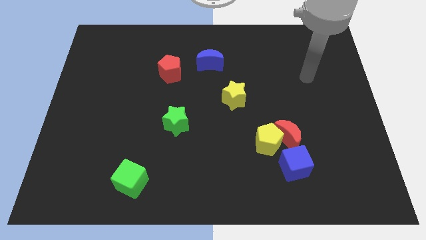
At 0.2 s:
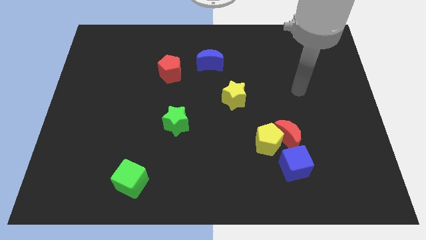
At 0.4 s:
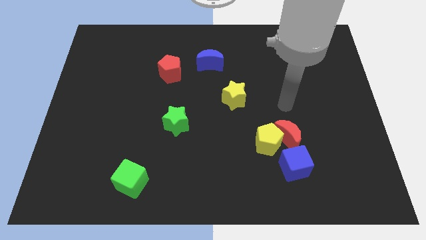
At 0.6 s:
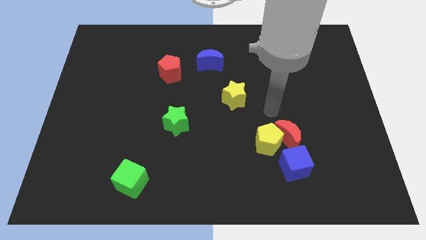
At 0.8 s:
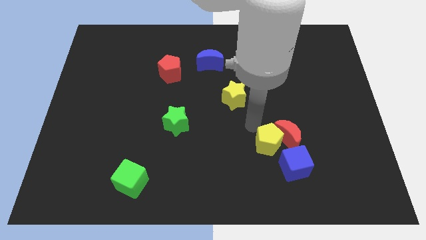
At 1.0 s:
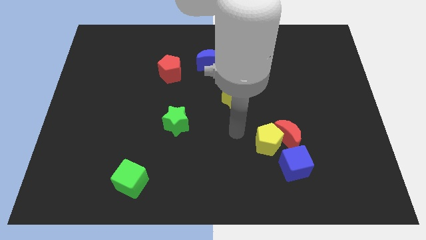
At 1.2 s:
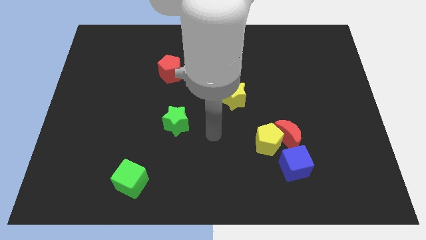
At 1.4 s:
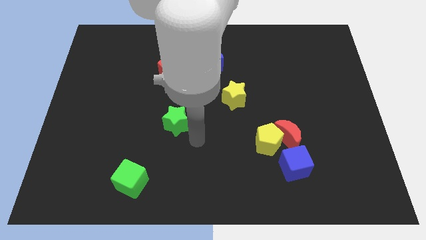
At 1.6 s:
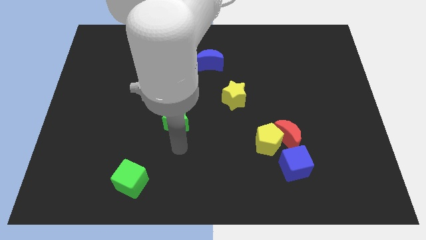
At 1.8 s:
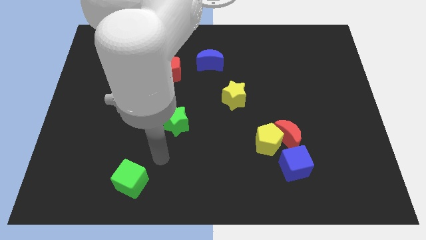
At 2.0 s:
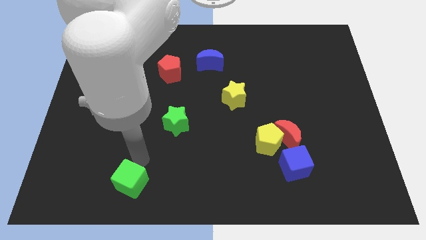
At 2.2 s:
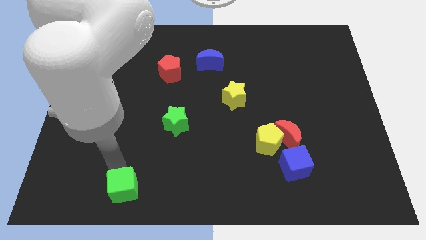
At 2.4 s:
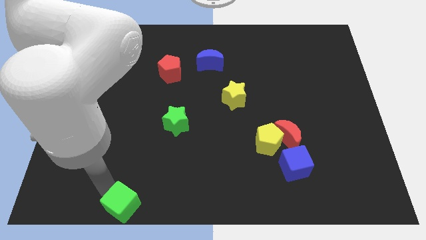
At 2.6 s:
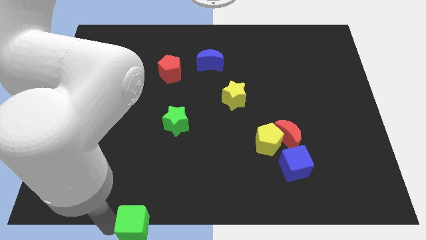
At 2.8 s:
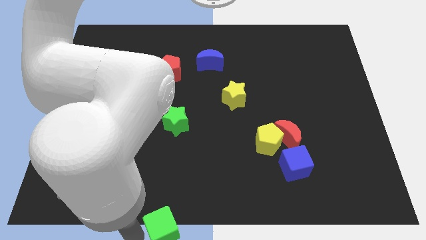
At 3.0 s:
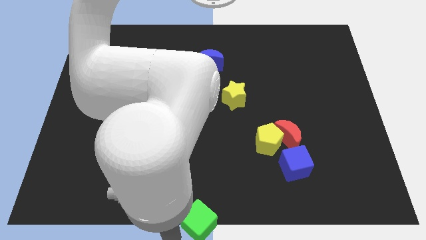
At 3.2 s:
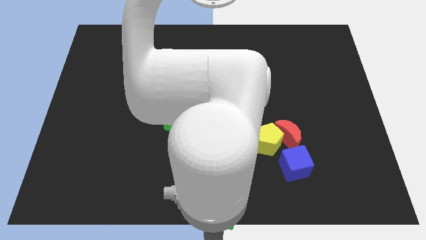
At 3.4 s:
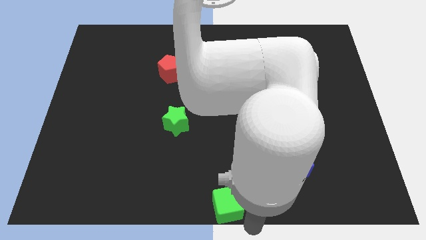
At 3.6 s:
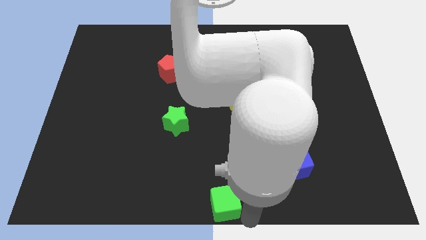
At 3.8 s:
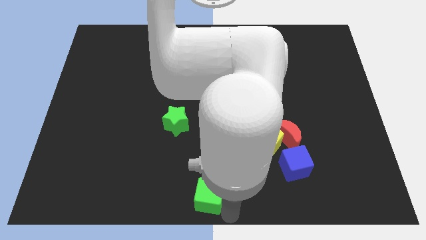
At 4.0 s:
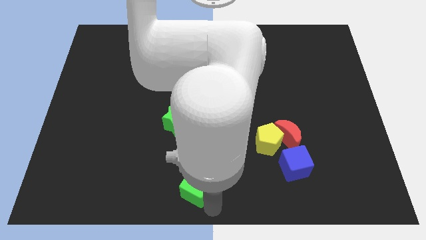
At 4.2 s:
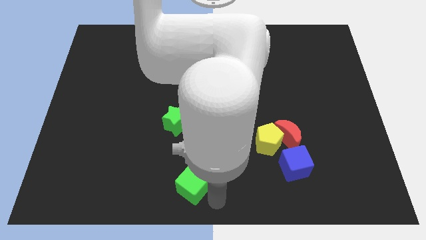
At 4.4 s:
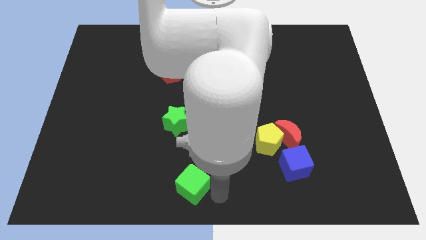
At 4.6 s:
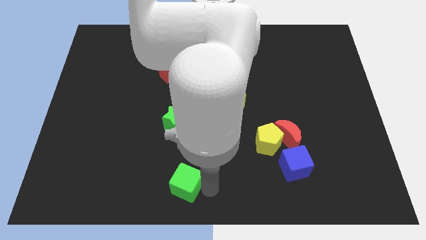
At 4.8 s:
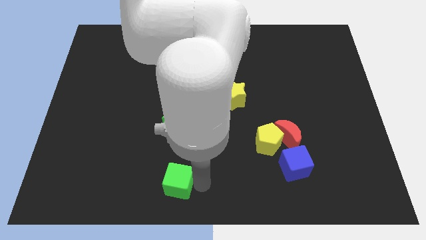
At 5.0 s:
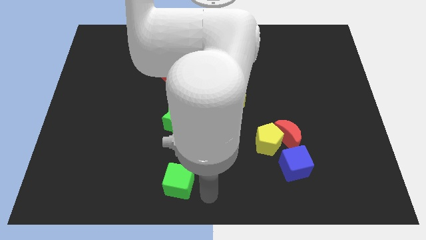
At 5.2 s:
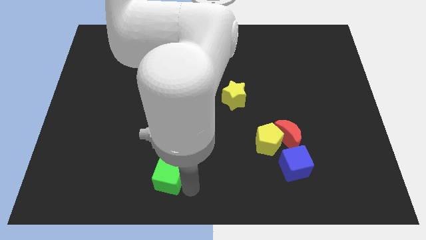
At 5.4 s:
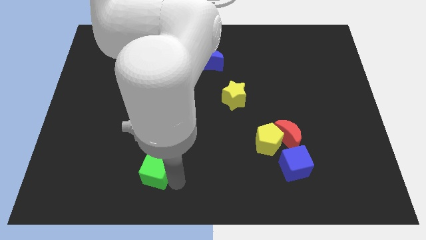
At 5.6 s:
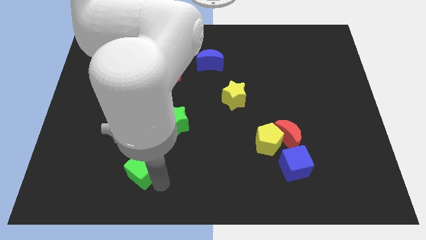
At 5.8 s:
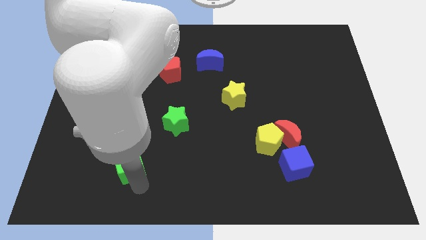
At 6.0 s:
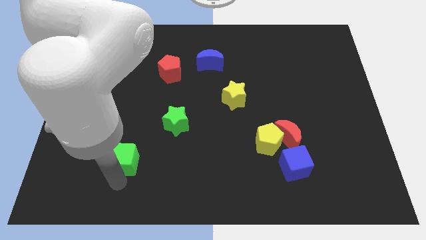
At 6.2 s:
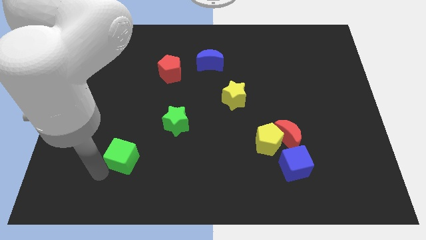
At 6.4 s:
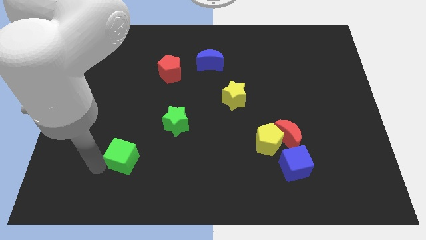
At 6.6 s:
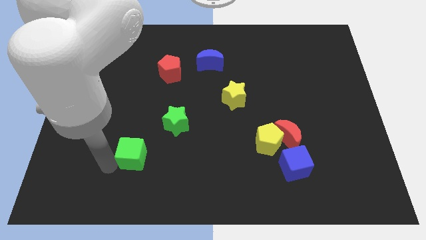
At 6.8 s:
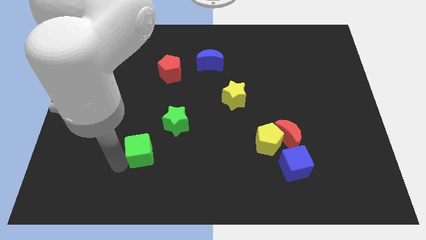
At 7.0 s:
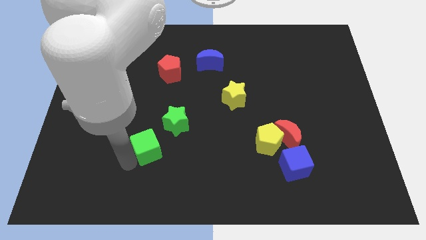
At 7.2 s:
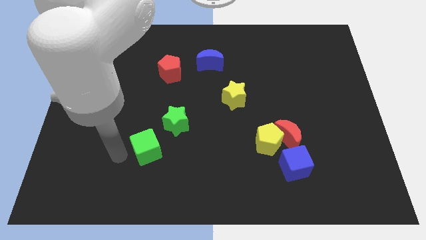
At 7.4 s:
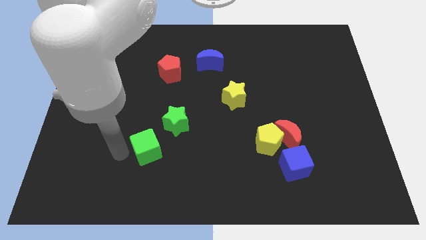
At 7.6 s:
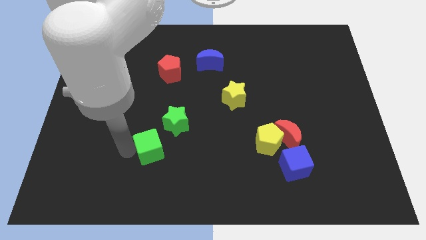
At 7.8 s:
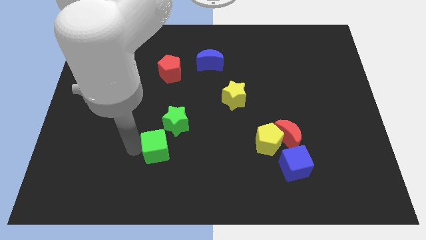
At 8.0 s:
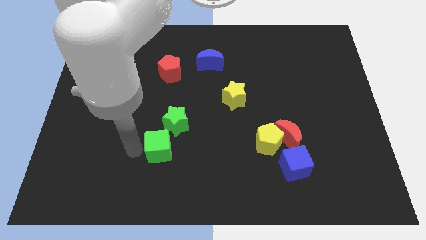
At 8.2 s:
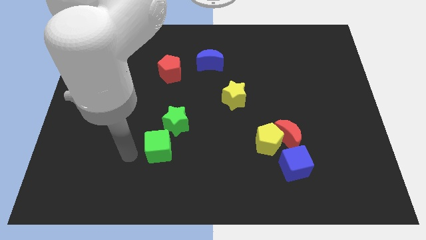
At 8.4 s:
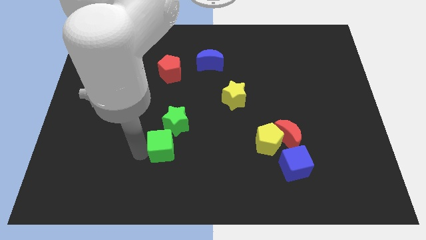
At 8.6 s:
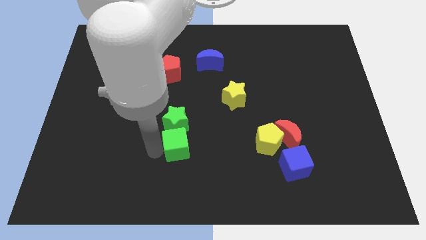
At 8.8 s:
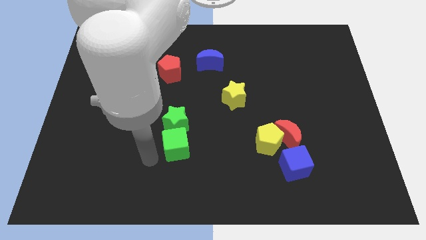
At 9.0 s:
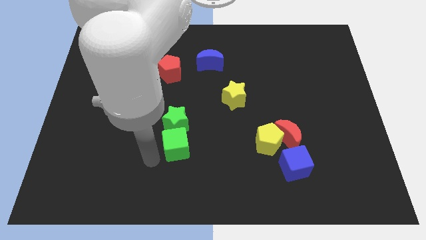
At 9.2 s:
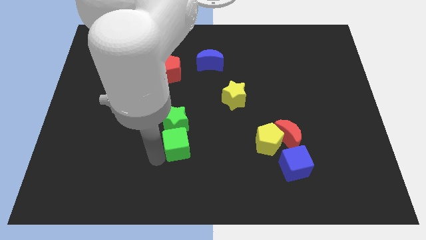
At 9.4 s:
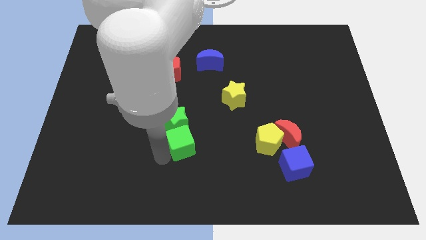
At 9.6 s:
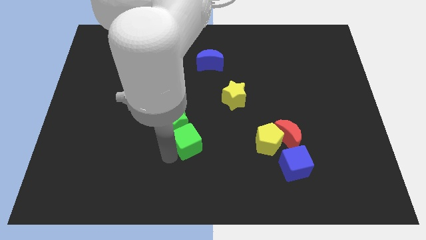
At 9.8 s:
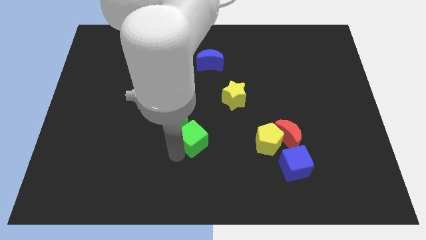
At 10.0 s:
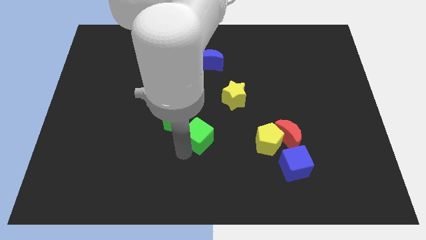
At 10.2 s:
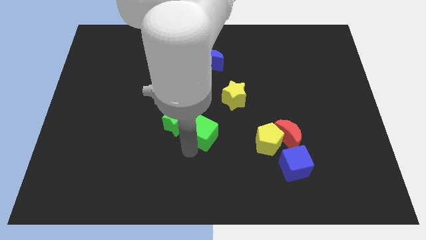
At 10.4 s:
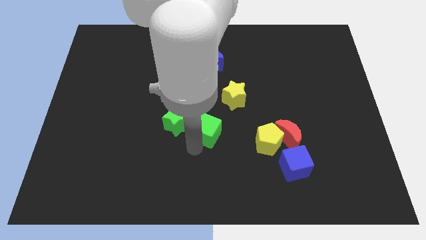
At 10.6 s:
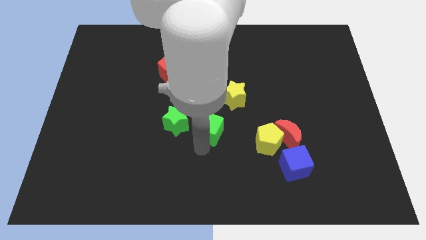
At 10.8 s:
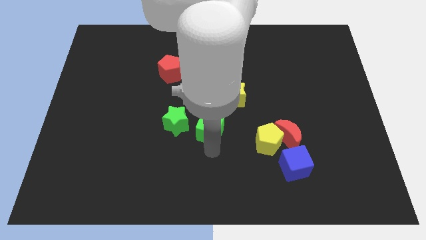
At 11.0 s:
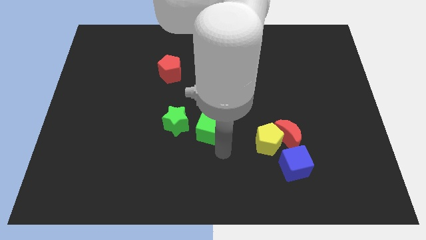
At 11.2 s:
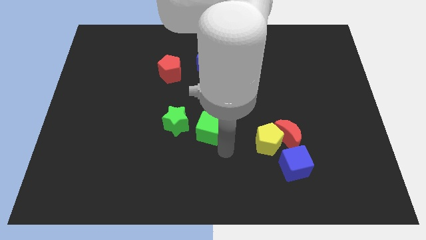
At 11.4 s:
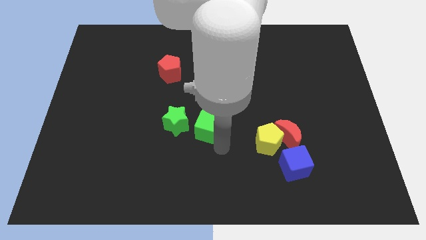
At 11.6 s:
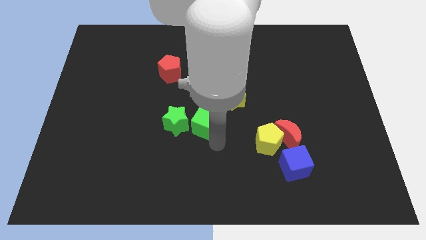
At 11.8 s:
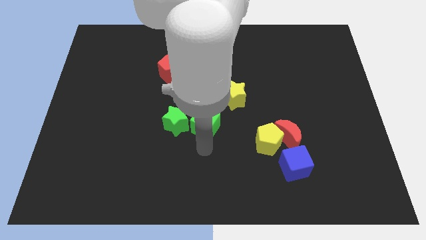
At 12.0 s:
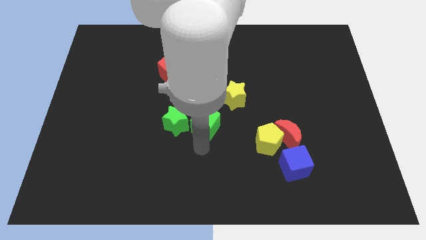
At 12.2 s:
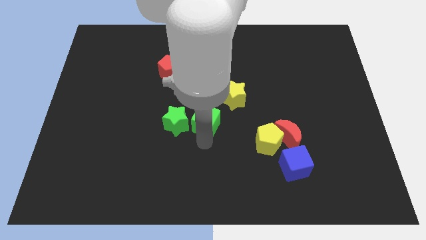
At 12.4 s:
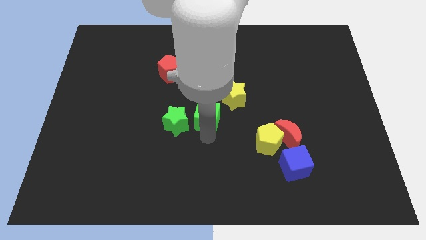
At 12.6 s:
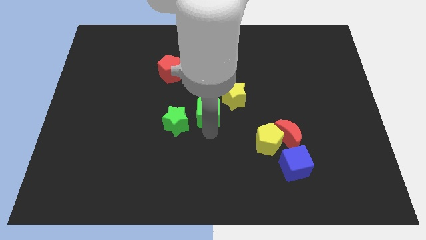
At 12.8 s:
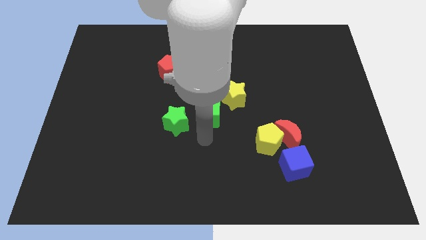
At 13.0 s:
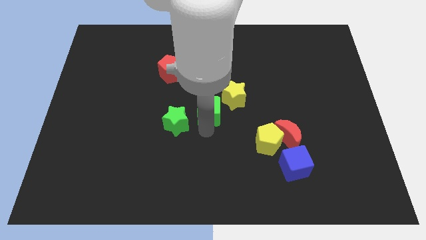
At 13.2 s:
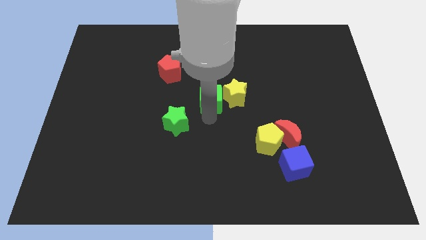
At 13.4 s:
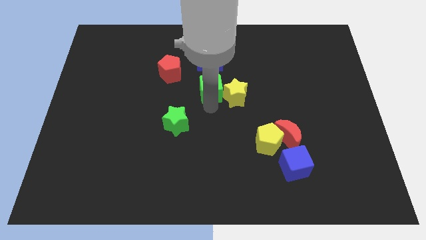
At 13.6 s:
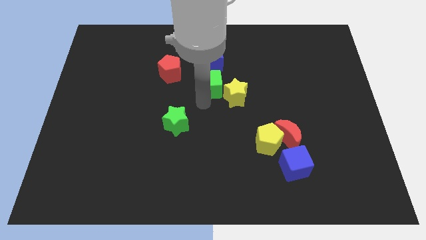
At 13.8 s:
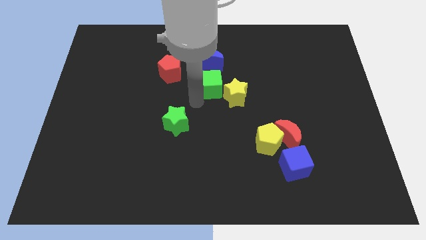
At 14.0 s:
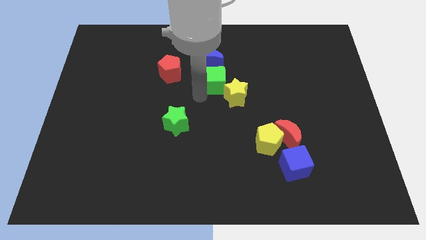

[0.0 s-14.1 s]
push the green cube to the top of the yellow star

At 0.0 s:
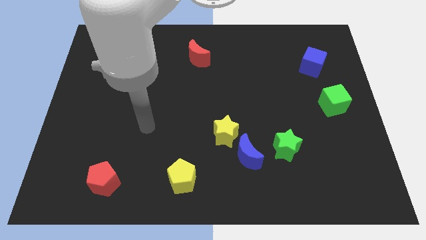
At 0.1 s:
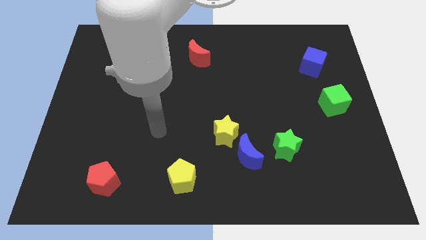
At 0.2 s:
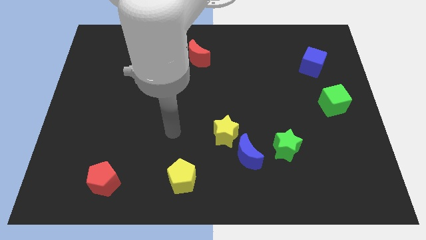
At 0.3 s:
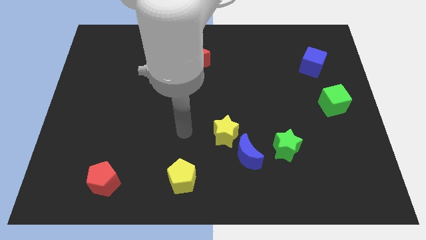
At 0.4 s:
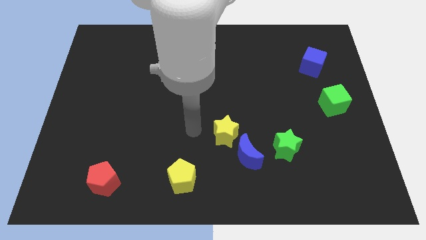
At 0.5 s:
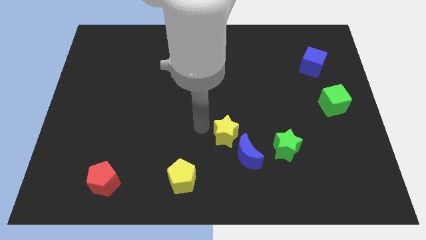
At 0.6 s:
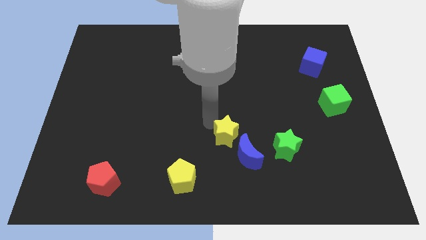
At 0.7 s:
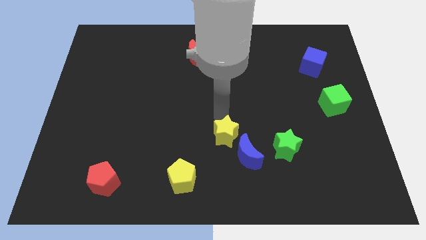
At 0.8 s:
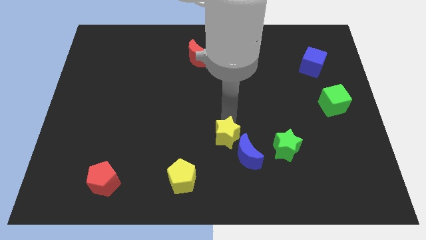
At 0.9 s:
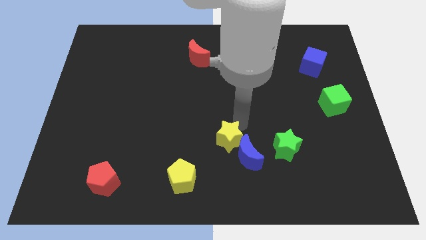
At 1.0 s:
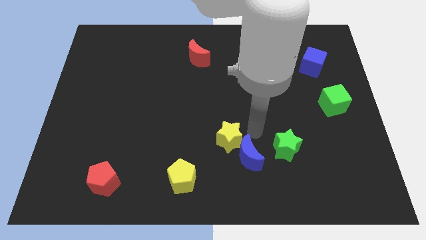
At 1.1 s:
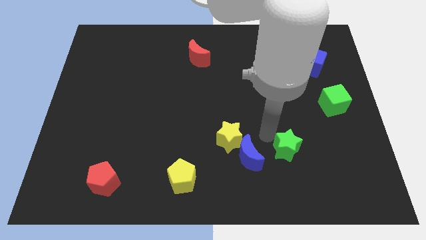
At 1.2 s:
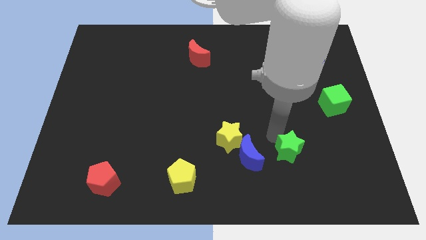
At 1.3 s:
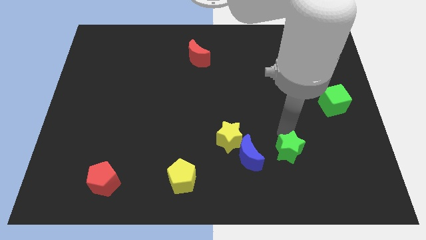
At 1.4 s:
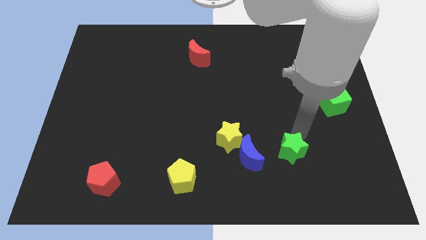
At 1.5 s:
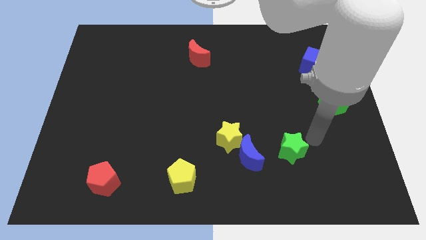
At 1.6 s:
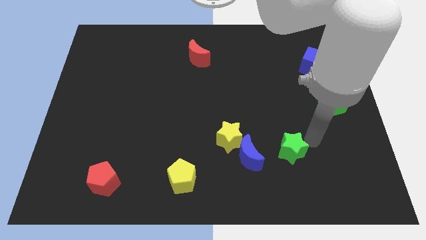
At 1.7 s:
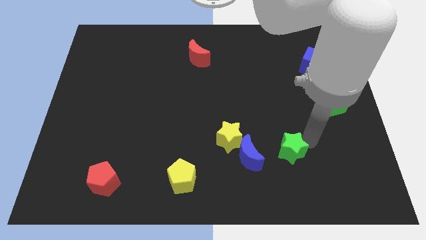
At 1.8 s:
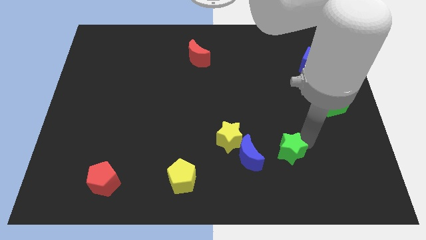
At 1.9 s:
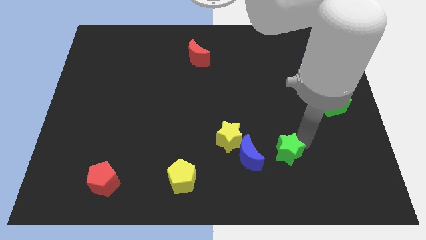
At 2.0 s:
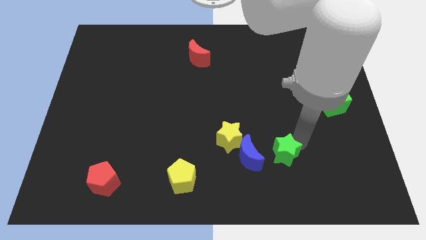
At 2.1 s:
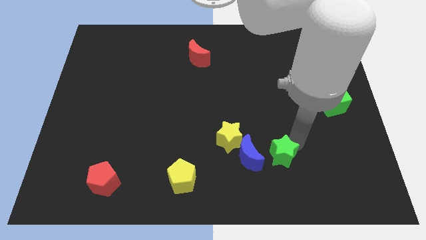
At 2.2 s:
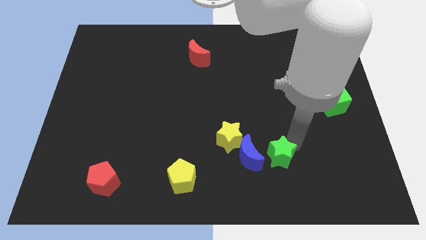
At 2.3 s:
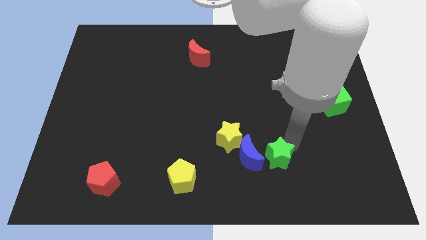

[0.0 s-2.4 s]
move the green star to the bottom right of the yellow star
